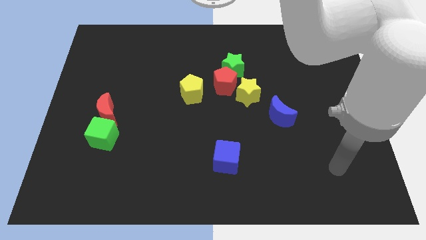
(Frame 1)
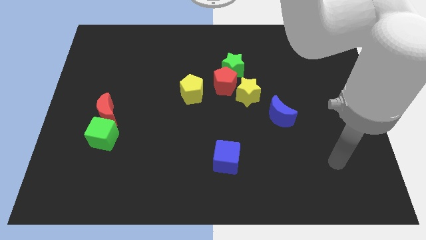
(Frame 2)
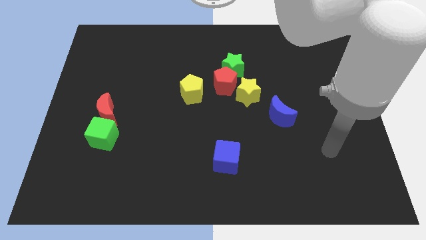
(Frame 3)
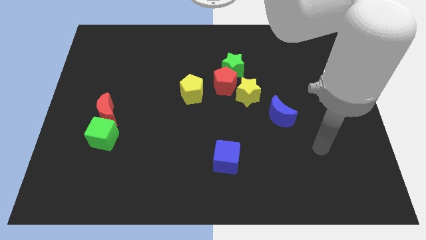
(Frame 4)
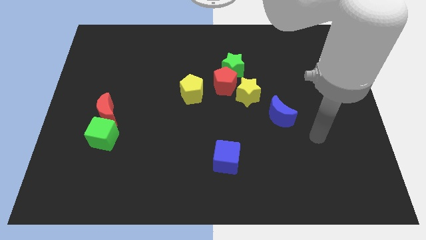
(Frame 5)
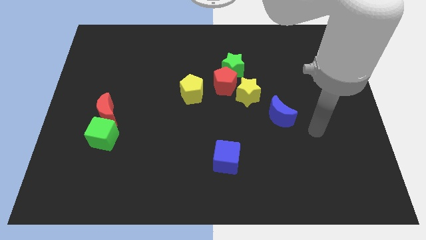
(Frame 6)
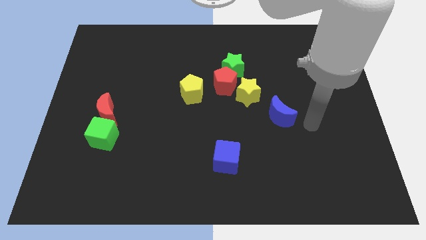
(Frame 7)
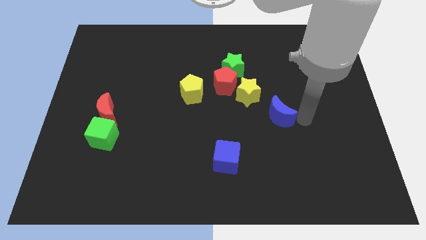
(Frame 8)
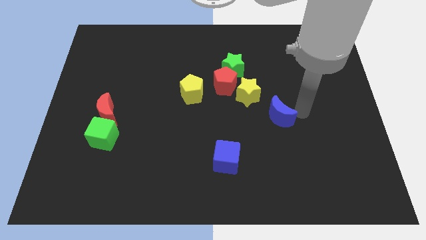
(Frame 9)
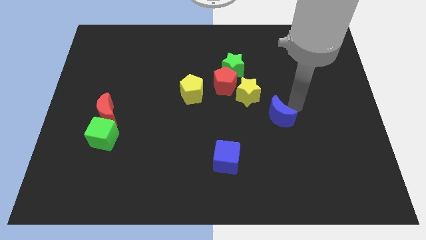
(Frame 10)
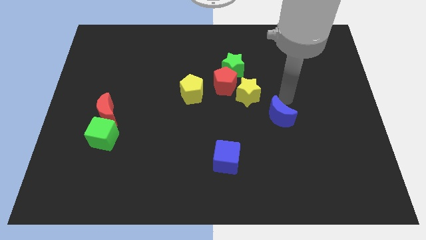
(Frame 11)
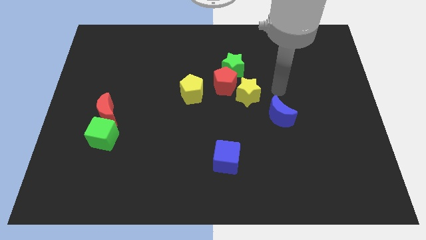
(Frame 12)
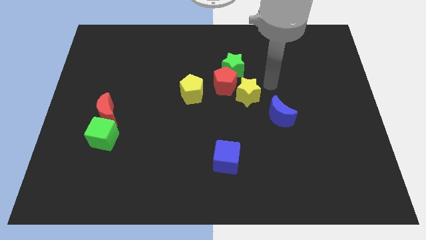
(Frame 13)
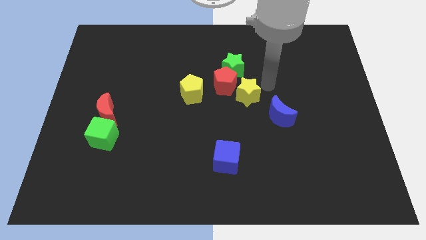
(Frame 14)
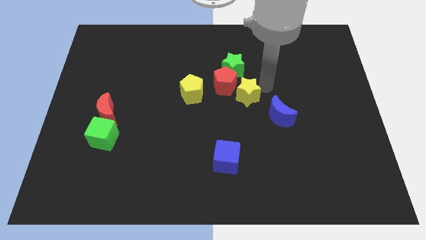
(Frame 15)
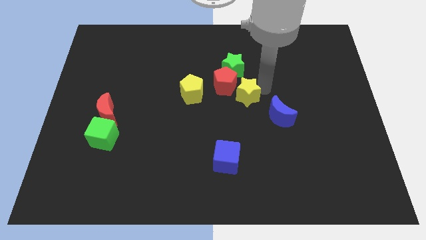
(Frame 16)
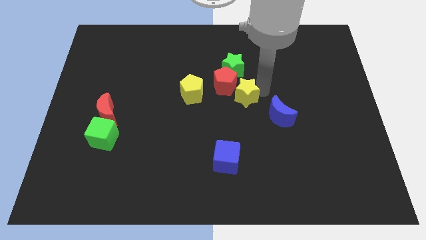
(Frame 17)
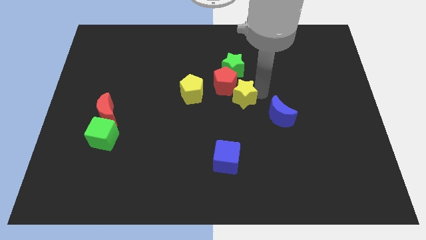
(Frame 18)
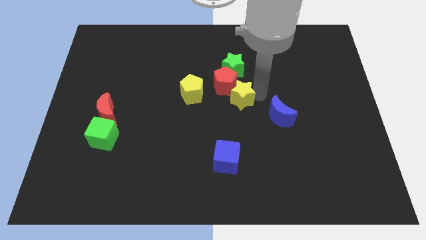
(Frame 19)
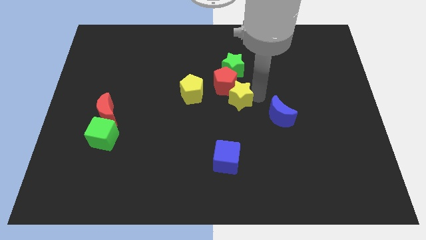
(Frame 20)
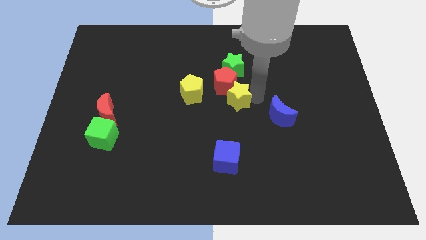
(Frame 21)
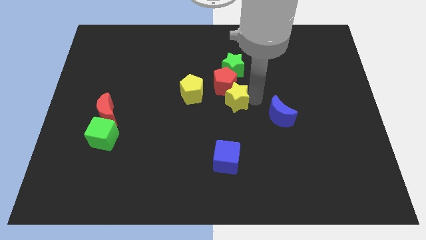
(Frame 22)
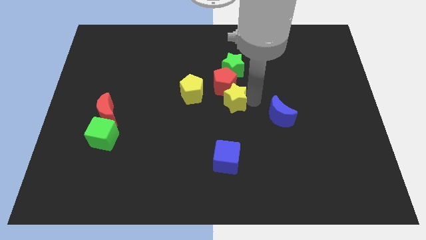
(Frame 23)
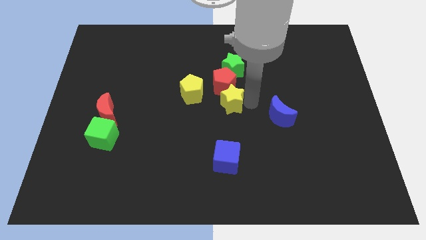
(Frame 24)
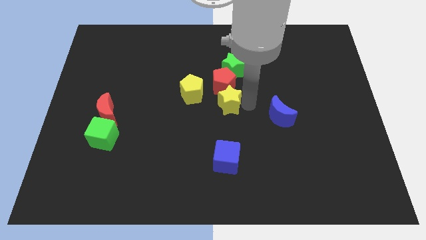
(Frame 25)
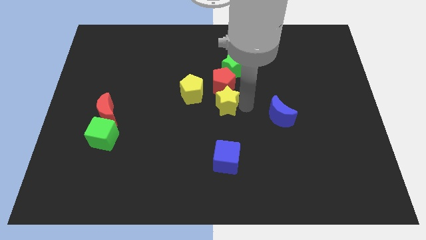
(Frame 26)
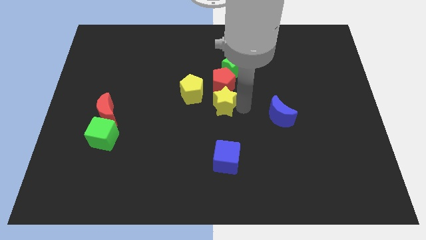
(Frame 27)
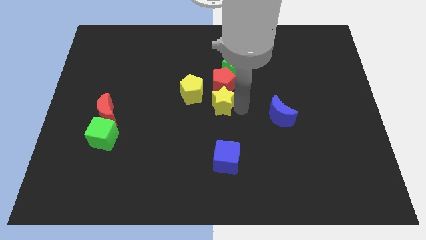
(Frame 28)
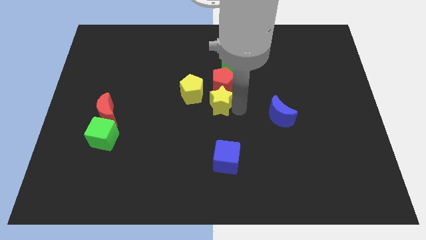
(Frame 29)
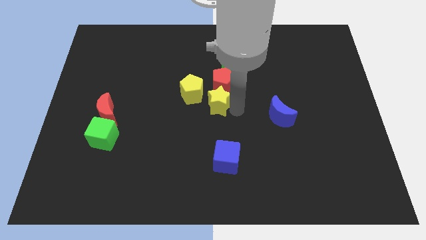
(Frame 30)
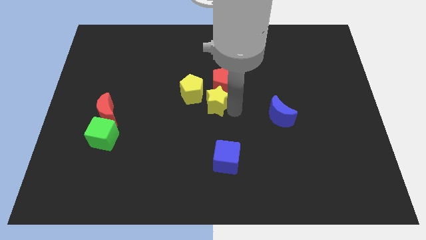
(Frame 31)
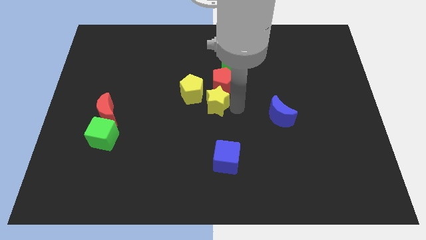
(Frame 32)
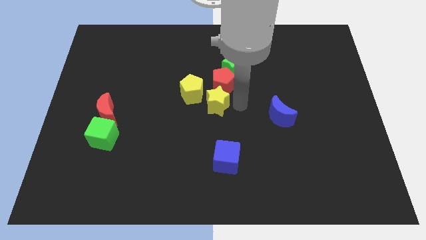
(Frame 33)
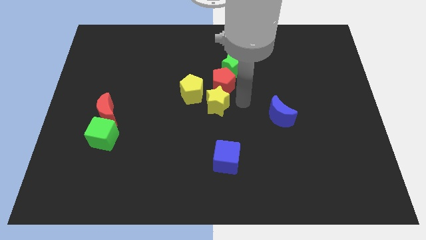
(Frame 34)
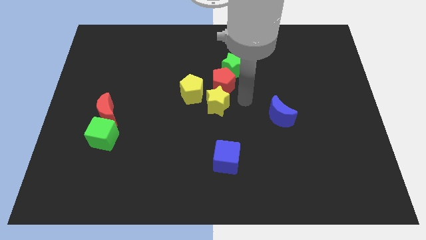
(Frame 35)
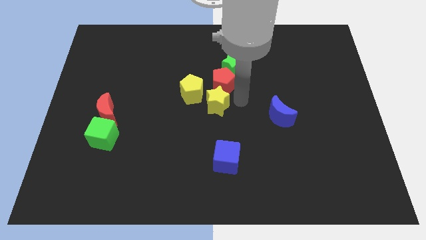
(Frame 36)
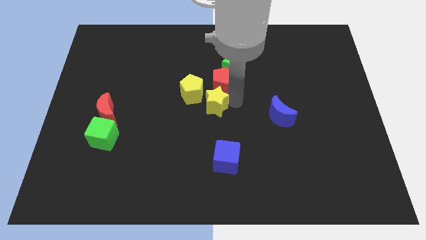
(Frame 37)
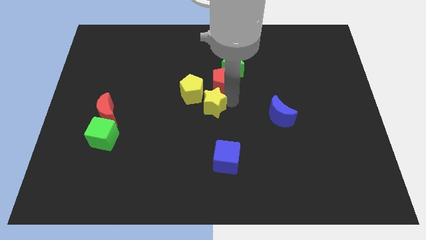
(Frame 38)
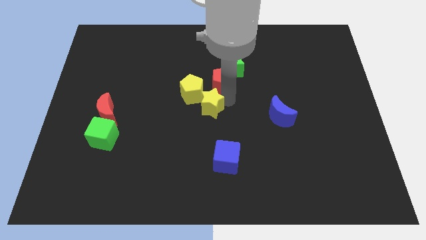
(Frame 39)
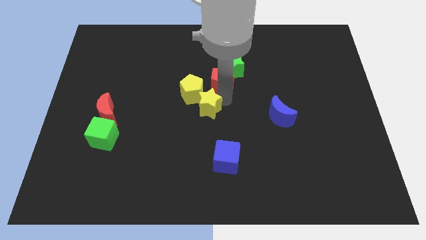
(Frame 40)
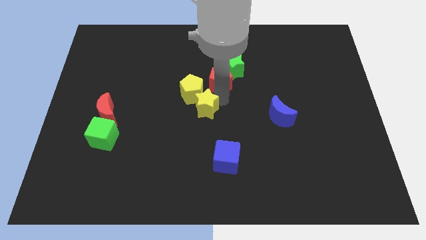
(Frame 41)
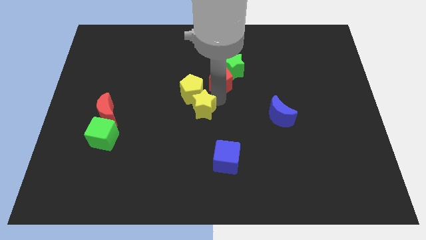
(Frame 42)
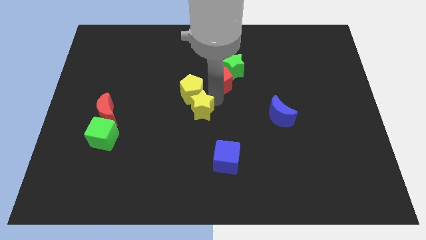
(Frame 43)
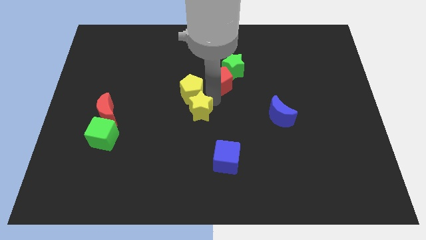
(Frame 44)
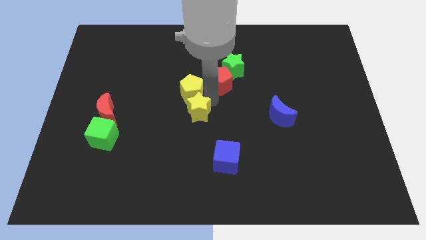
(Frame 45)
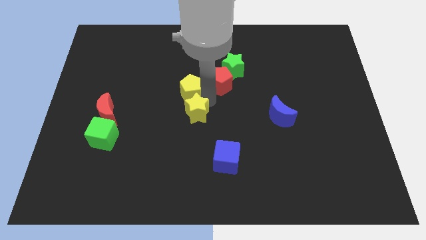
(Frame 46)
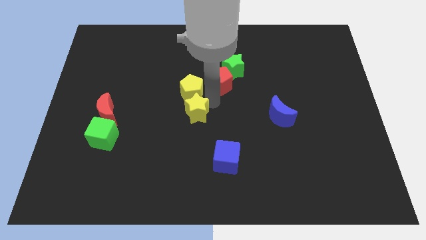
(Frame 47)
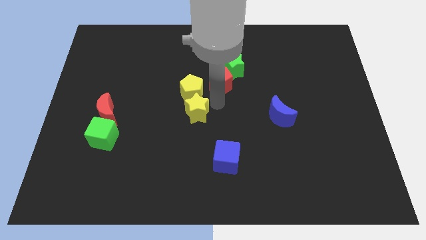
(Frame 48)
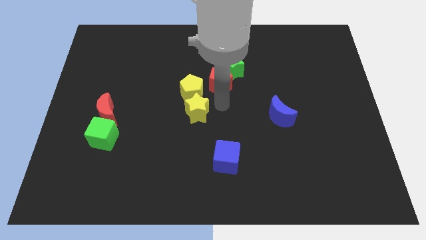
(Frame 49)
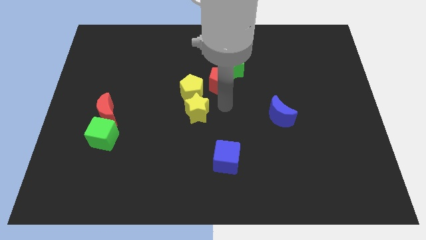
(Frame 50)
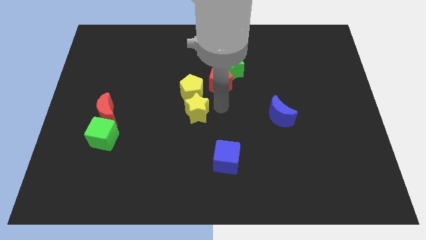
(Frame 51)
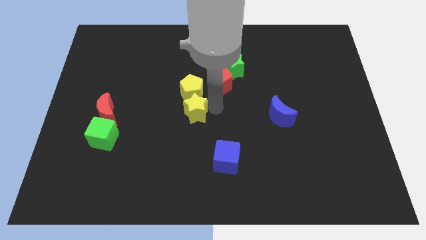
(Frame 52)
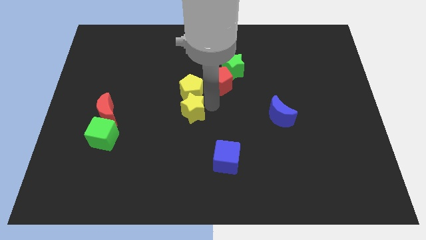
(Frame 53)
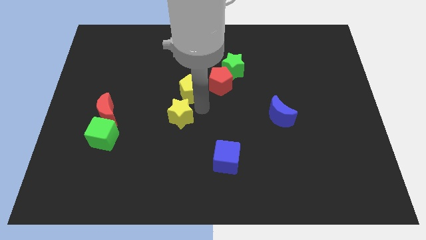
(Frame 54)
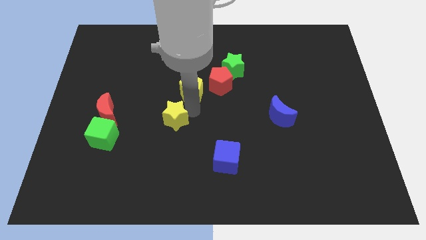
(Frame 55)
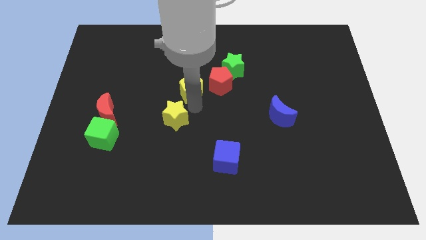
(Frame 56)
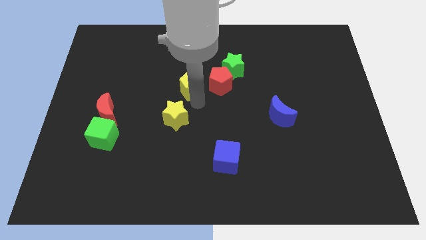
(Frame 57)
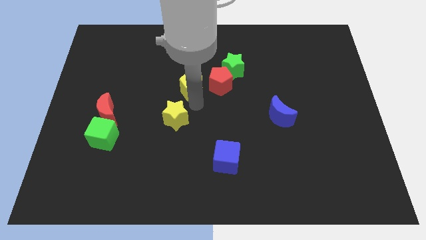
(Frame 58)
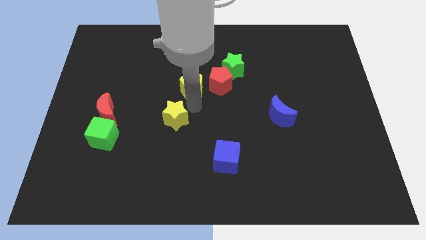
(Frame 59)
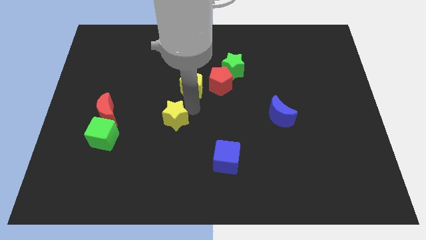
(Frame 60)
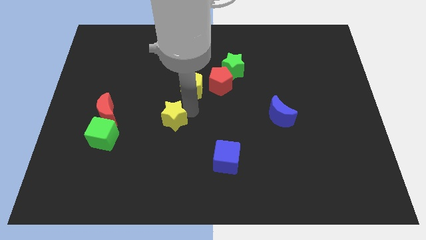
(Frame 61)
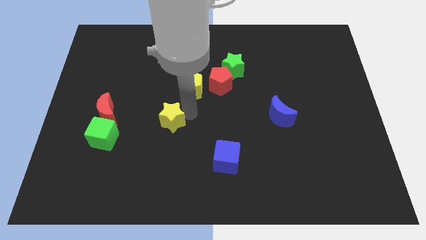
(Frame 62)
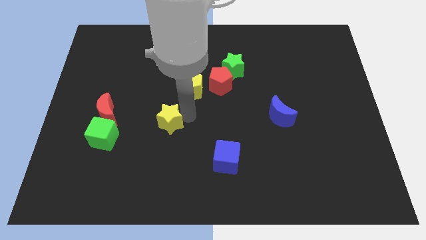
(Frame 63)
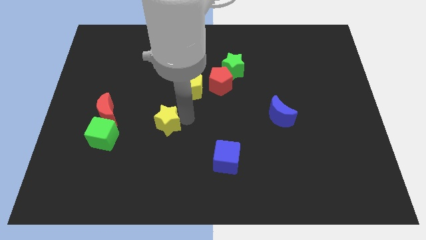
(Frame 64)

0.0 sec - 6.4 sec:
put the yellow star to the right of the green cube
